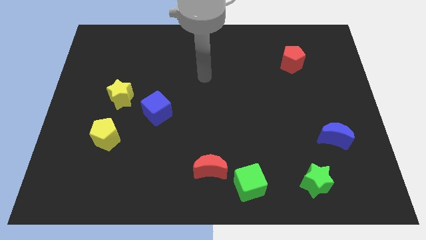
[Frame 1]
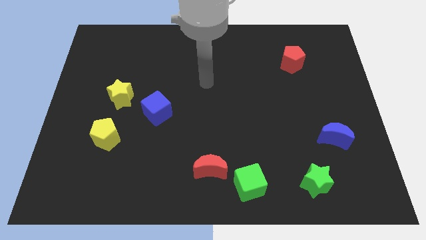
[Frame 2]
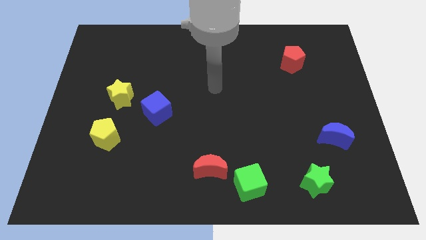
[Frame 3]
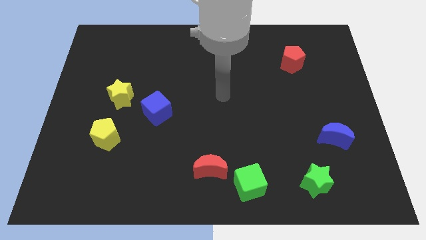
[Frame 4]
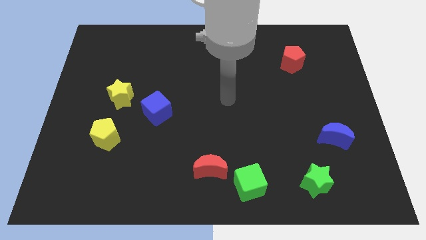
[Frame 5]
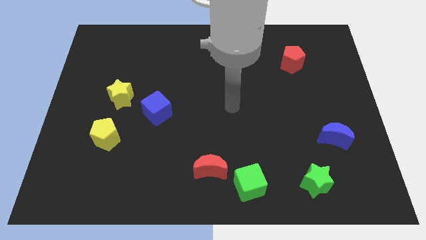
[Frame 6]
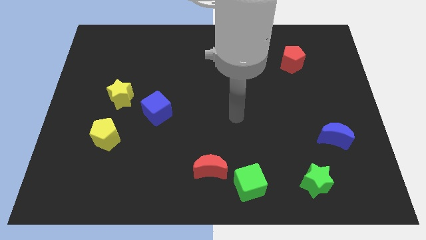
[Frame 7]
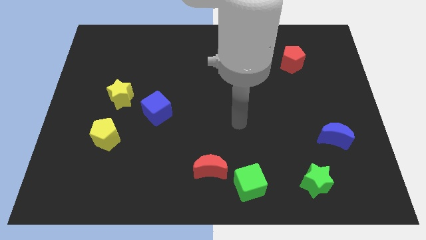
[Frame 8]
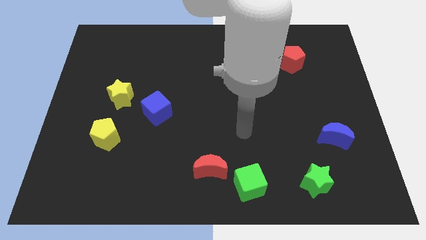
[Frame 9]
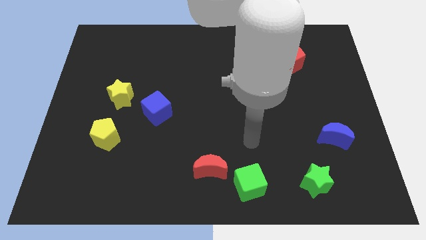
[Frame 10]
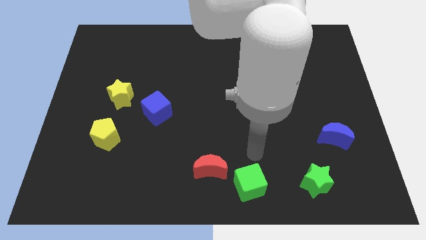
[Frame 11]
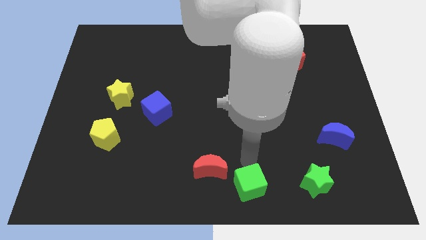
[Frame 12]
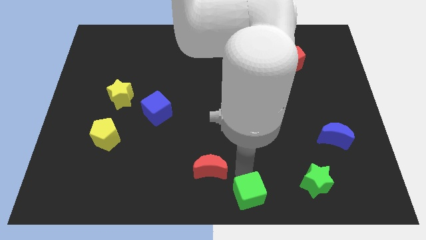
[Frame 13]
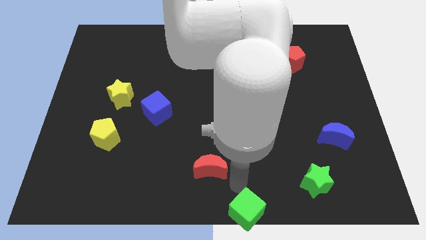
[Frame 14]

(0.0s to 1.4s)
separate the red moon from the green cube

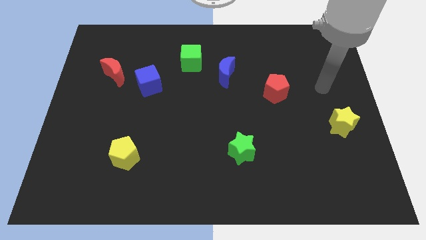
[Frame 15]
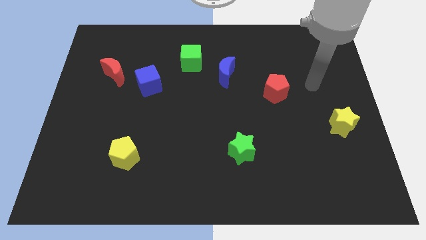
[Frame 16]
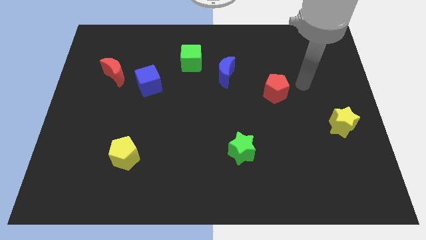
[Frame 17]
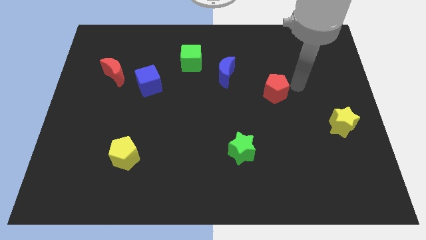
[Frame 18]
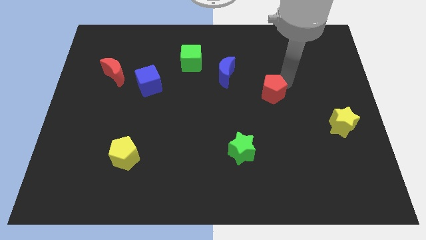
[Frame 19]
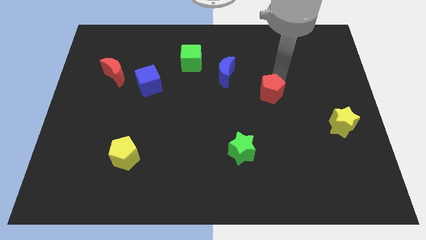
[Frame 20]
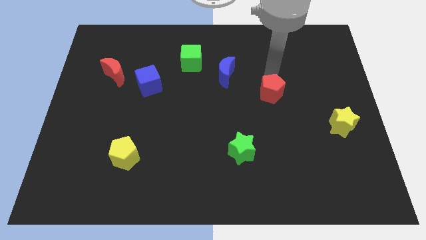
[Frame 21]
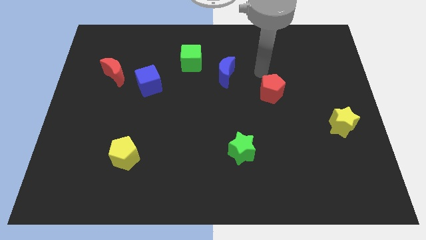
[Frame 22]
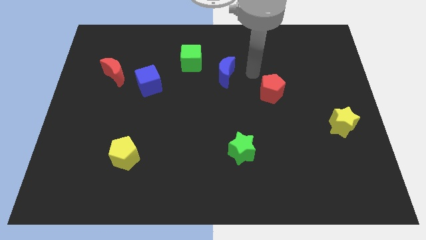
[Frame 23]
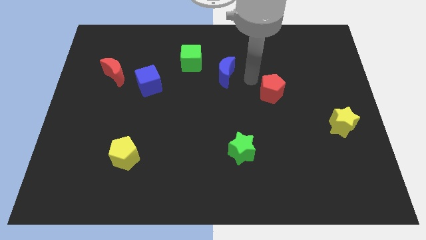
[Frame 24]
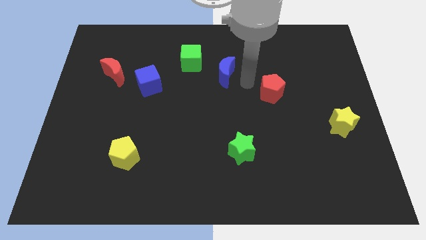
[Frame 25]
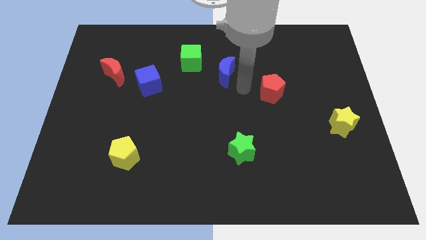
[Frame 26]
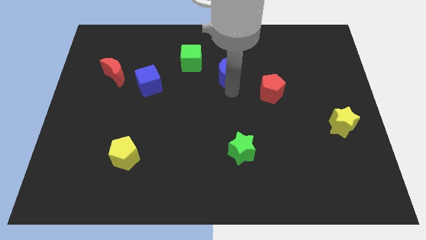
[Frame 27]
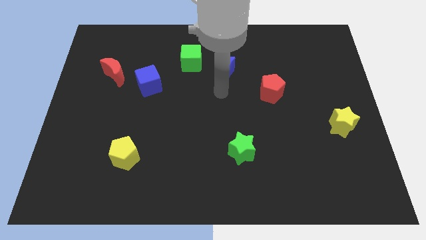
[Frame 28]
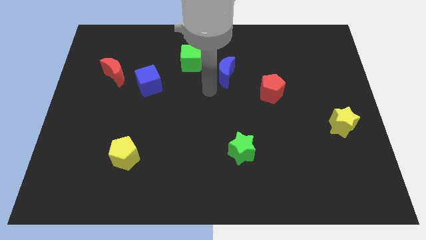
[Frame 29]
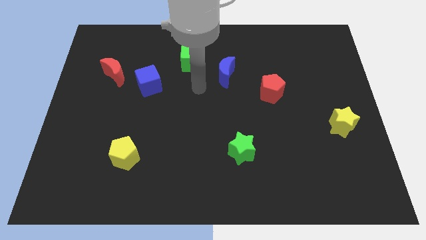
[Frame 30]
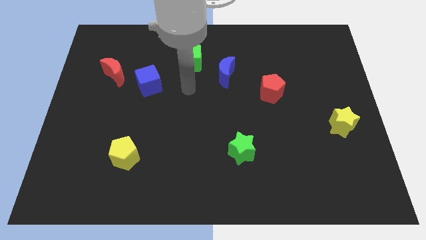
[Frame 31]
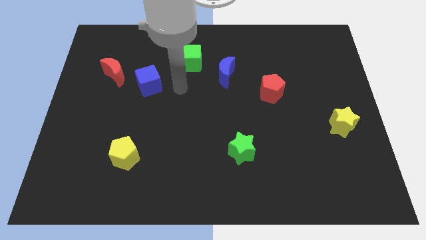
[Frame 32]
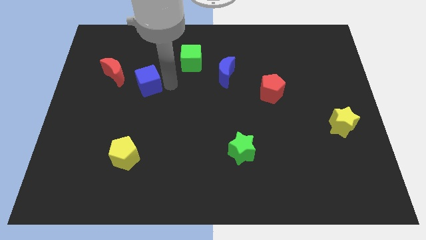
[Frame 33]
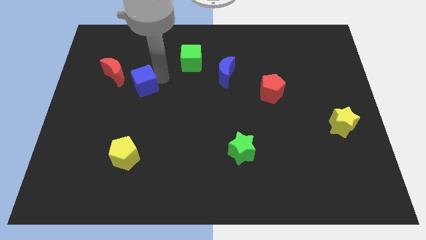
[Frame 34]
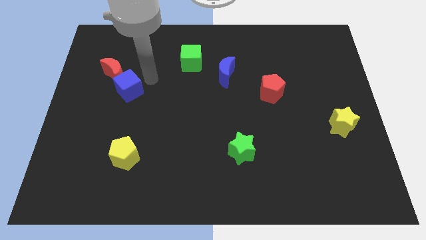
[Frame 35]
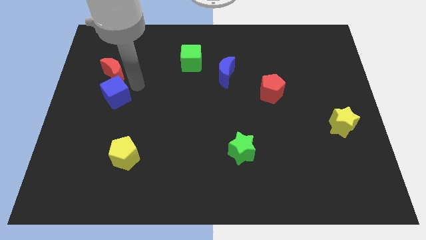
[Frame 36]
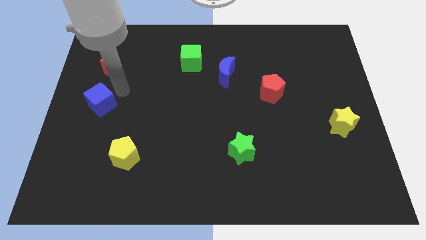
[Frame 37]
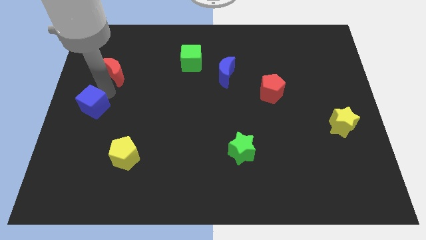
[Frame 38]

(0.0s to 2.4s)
move the red moon away from the blue cube

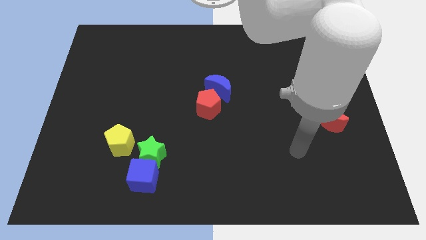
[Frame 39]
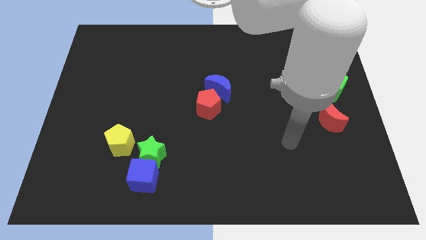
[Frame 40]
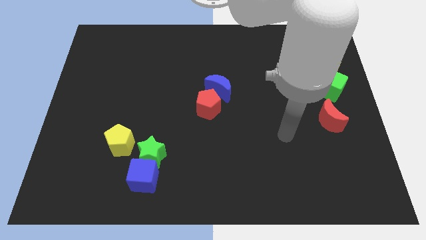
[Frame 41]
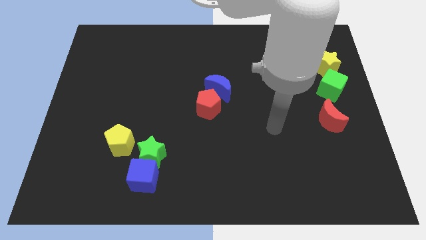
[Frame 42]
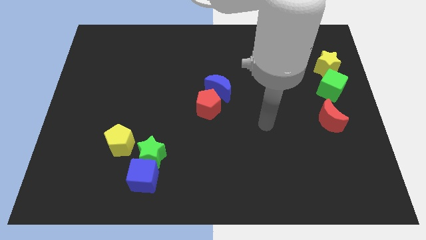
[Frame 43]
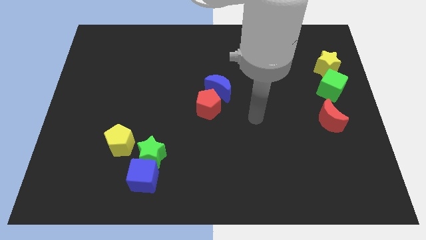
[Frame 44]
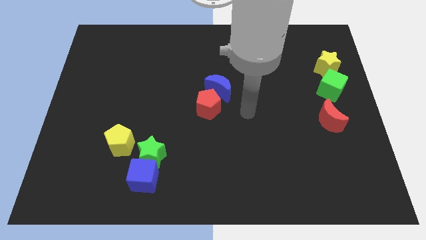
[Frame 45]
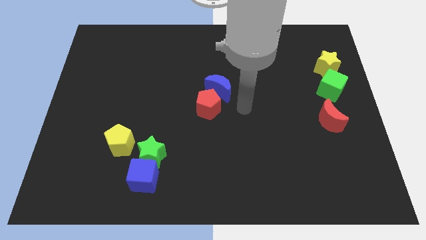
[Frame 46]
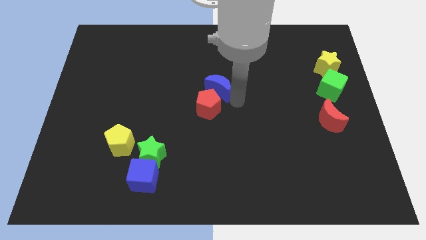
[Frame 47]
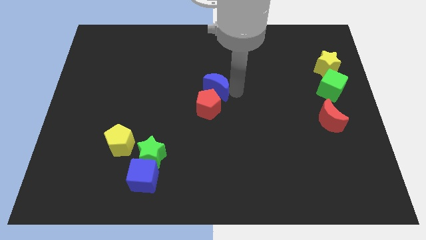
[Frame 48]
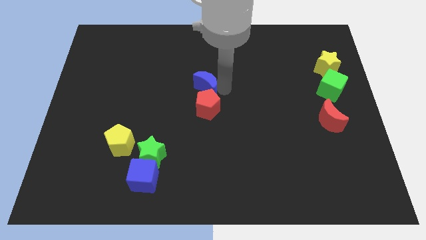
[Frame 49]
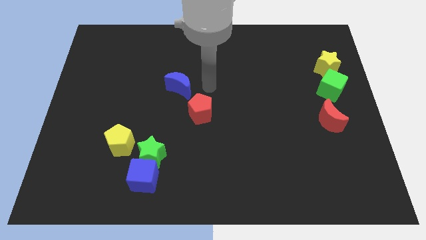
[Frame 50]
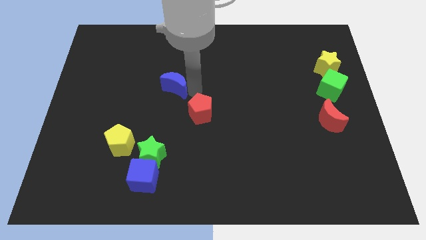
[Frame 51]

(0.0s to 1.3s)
separate the red pentagon from the blue moon

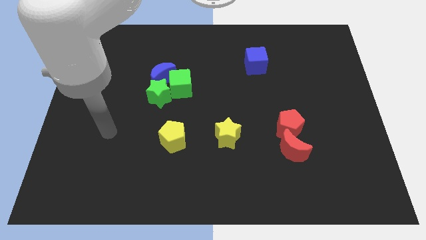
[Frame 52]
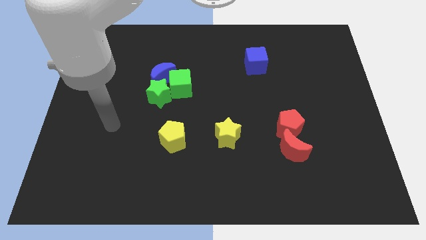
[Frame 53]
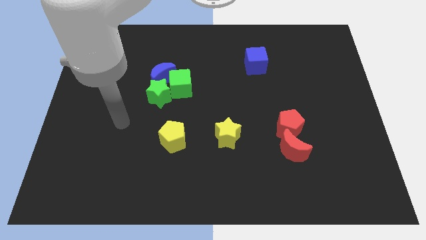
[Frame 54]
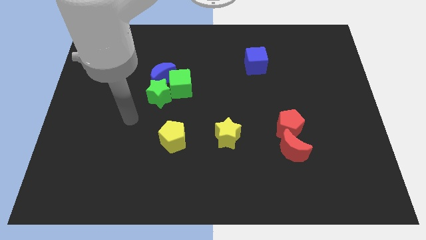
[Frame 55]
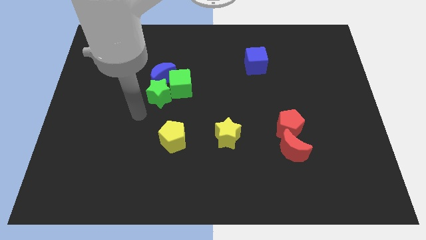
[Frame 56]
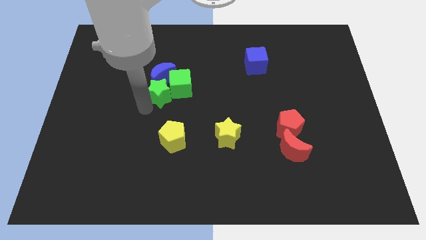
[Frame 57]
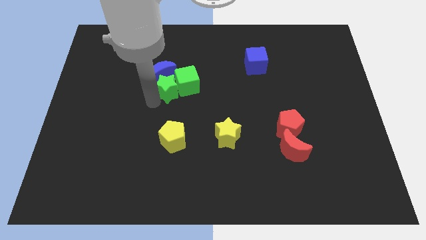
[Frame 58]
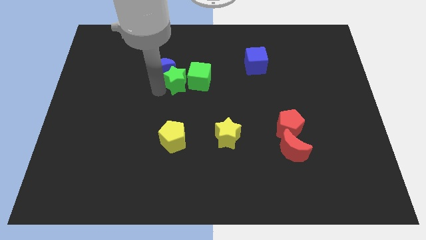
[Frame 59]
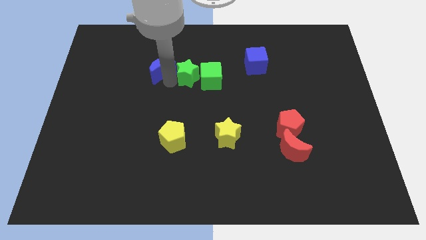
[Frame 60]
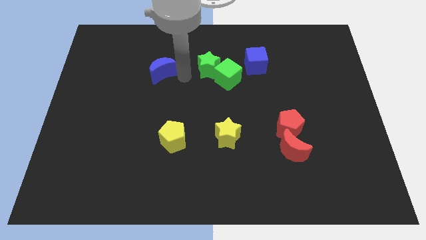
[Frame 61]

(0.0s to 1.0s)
pull the green cube apart from the green star and blue moon

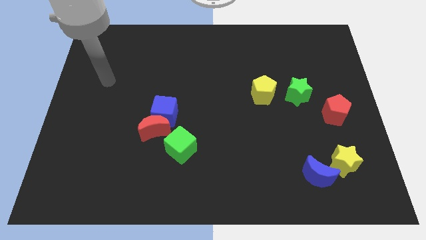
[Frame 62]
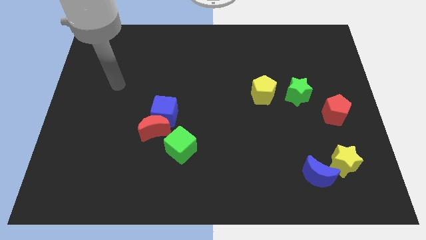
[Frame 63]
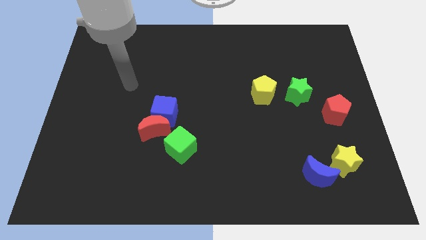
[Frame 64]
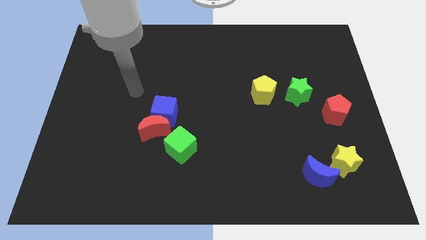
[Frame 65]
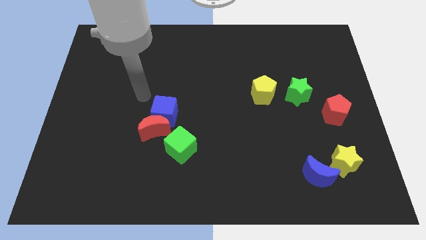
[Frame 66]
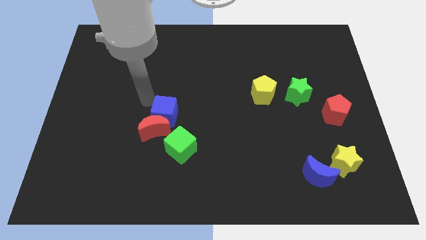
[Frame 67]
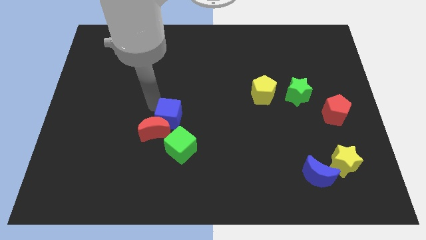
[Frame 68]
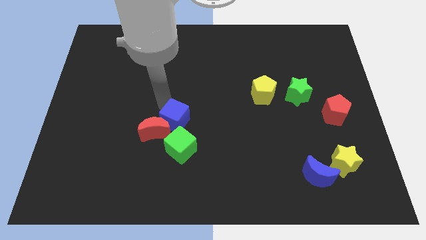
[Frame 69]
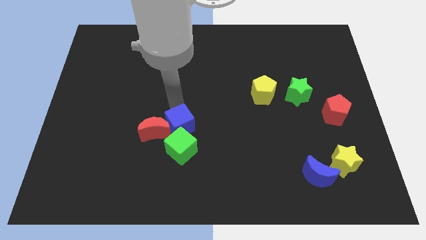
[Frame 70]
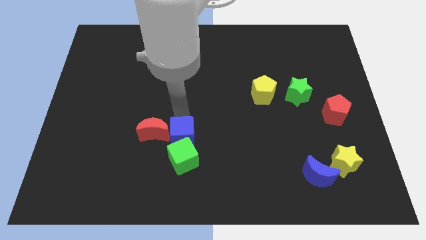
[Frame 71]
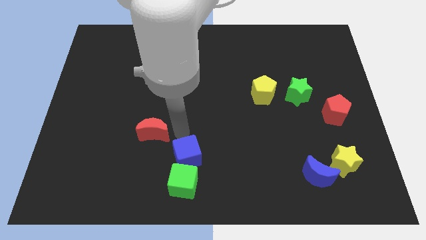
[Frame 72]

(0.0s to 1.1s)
pull the red moon apart from the blue cube and green cube

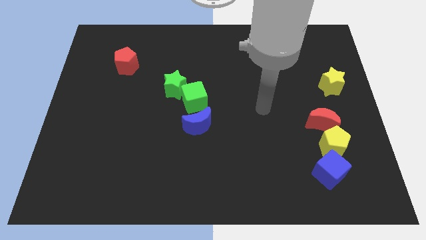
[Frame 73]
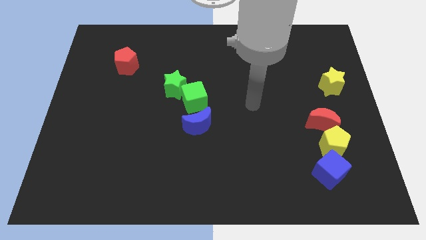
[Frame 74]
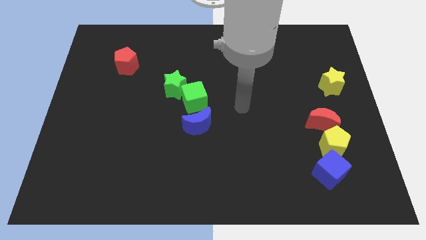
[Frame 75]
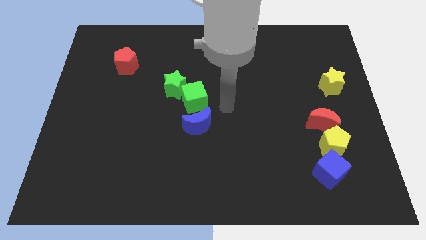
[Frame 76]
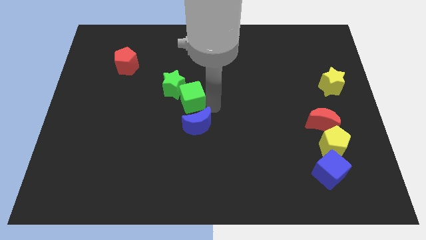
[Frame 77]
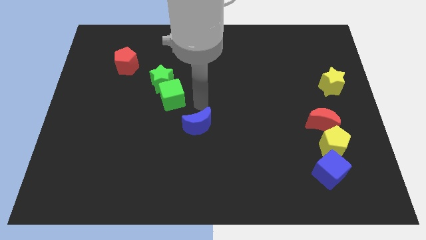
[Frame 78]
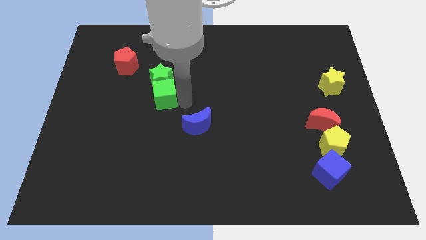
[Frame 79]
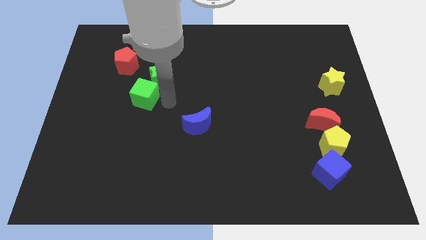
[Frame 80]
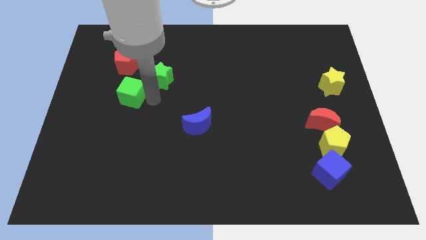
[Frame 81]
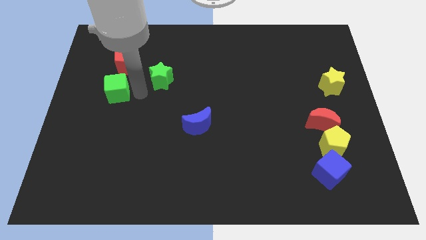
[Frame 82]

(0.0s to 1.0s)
pull the green star apart from the green cube

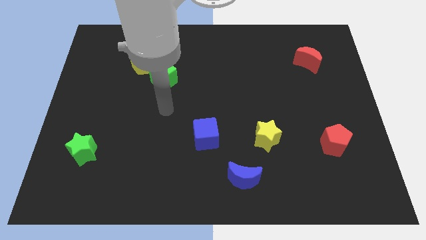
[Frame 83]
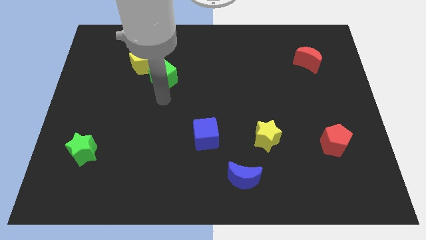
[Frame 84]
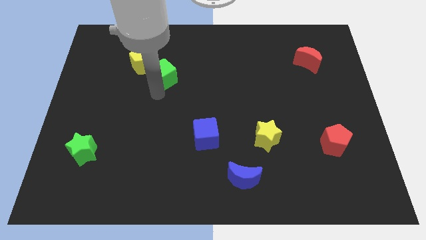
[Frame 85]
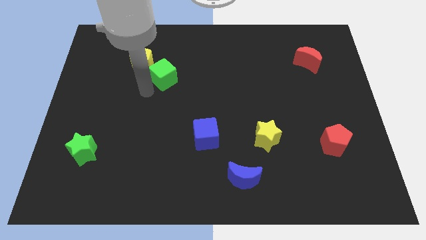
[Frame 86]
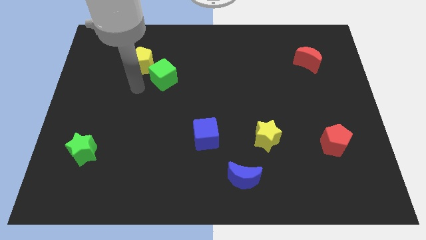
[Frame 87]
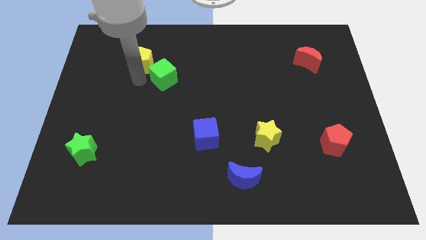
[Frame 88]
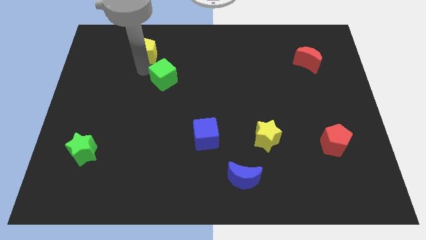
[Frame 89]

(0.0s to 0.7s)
separate the green cube from the yellow pentagon

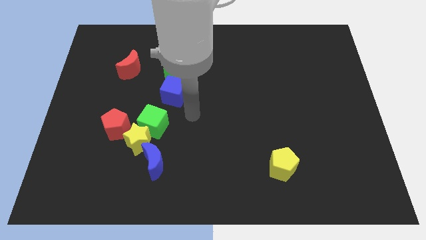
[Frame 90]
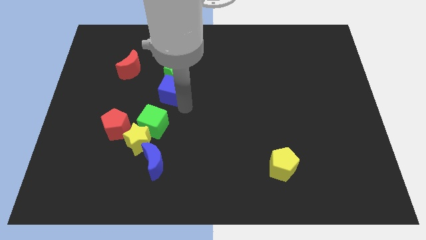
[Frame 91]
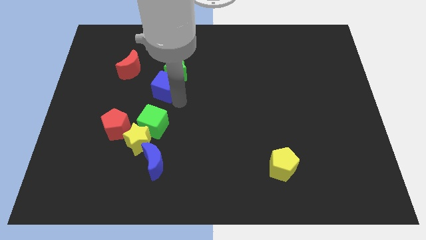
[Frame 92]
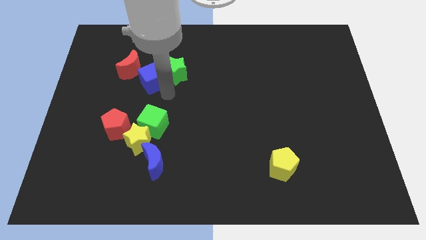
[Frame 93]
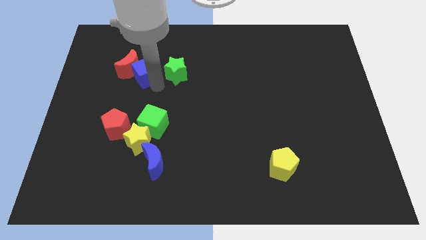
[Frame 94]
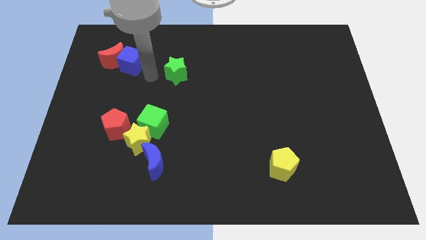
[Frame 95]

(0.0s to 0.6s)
pull the green star apart from the blue cube
